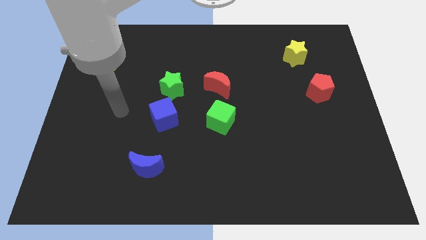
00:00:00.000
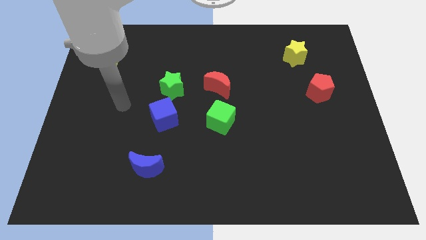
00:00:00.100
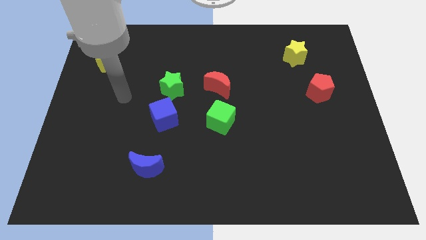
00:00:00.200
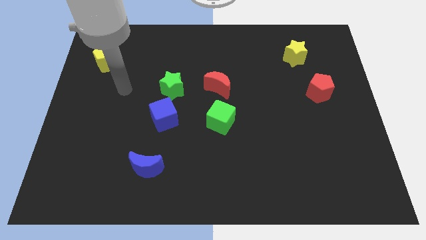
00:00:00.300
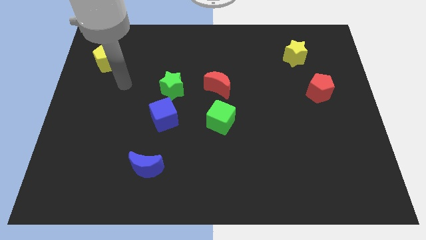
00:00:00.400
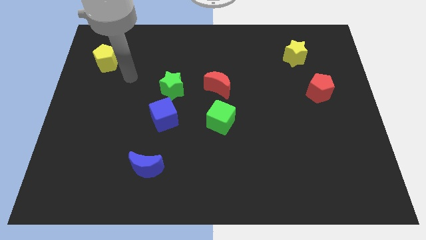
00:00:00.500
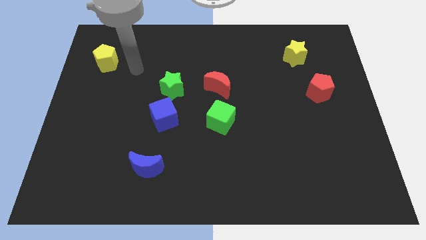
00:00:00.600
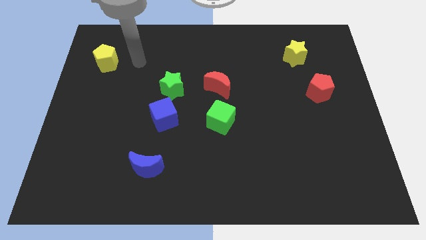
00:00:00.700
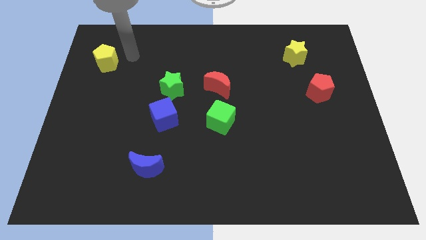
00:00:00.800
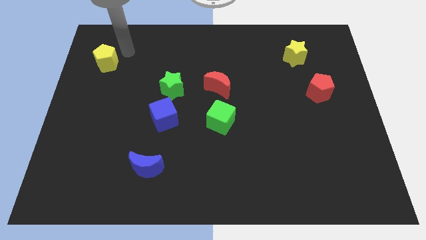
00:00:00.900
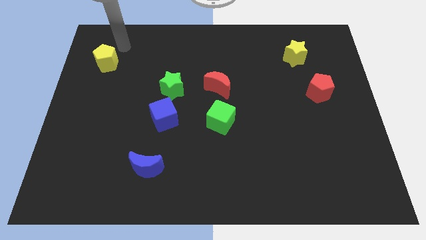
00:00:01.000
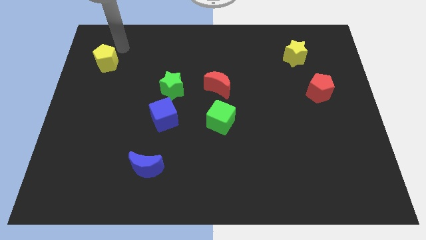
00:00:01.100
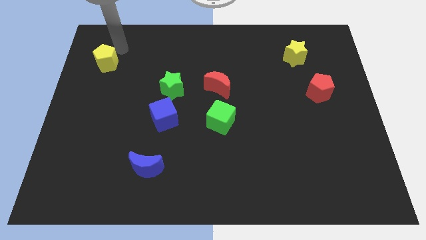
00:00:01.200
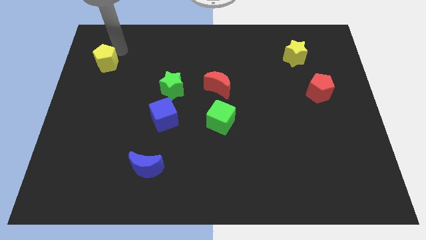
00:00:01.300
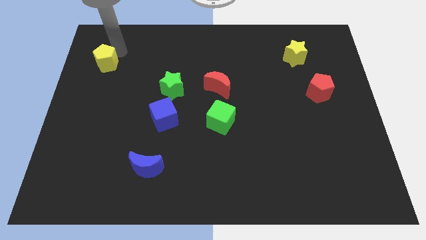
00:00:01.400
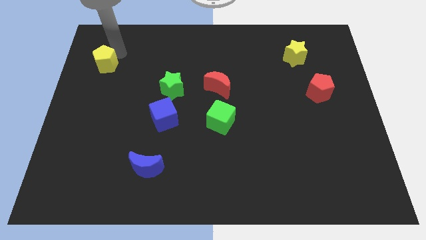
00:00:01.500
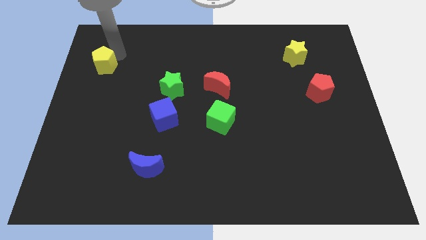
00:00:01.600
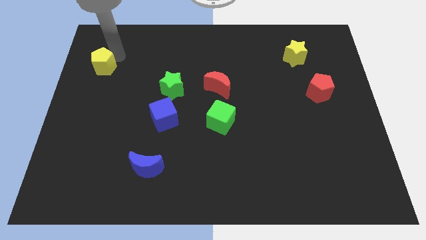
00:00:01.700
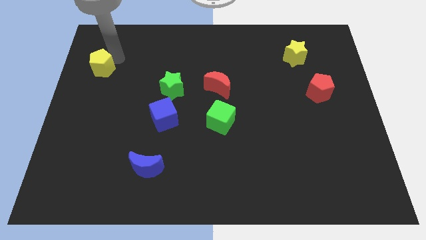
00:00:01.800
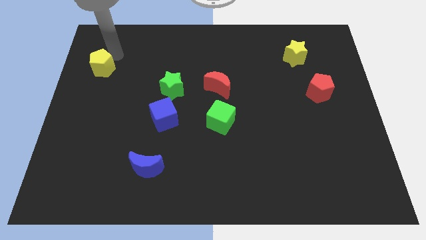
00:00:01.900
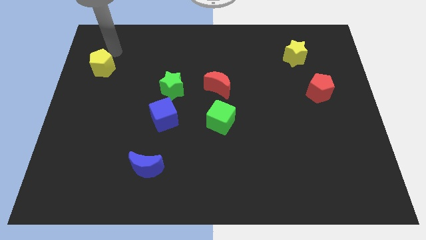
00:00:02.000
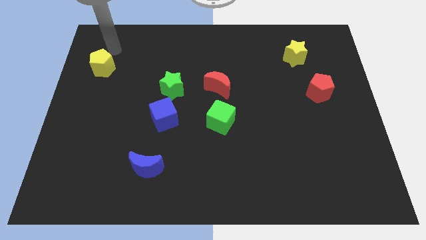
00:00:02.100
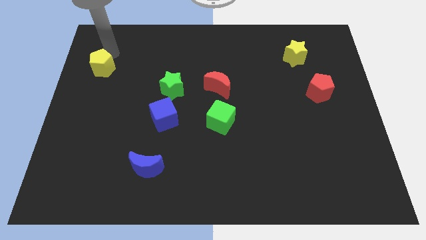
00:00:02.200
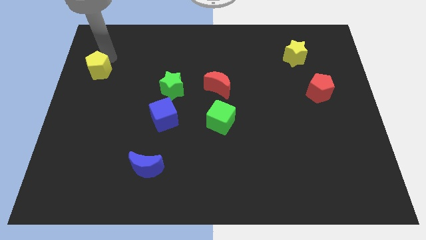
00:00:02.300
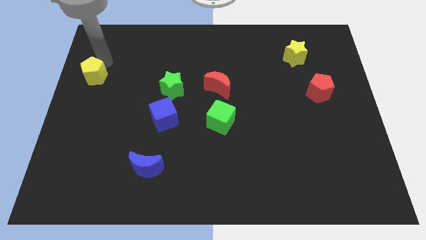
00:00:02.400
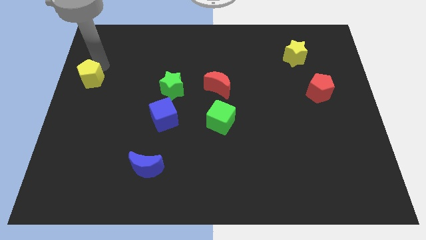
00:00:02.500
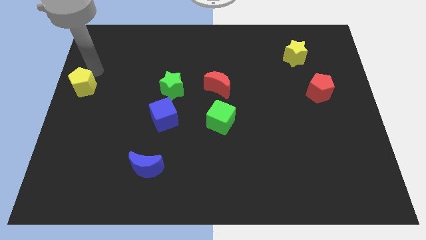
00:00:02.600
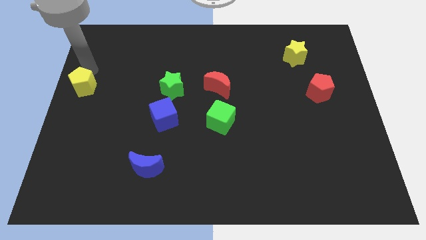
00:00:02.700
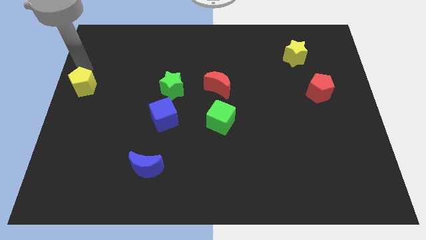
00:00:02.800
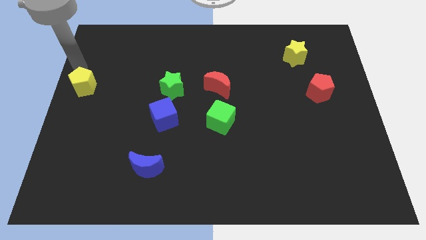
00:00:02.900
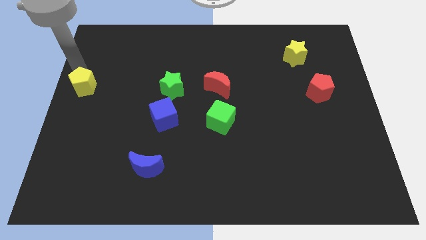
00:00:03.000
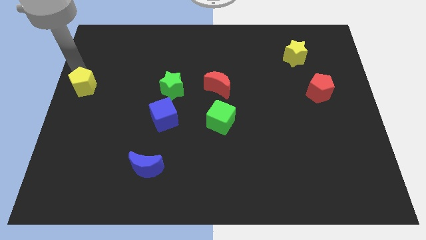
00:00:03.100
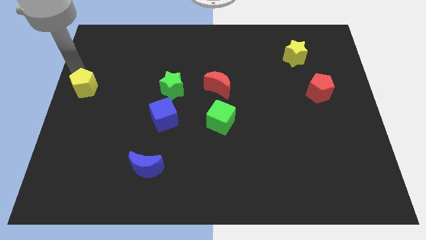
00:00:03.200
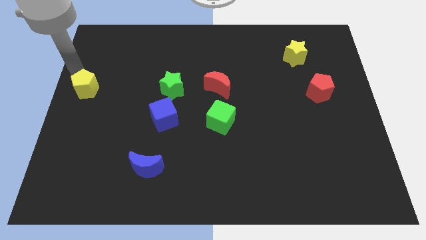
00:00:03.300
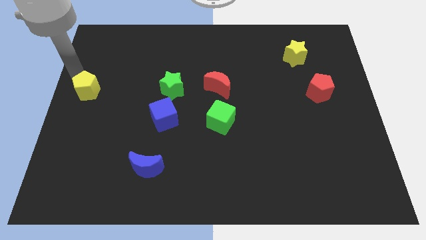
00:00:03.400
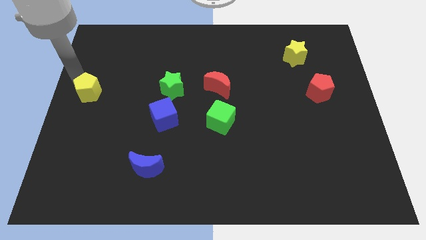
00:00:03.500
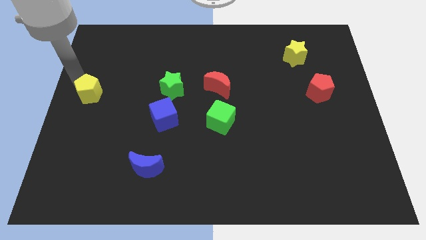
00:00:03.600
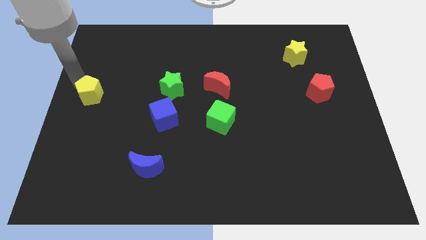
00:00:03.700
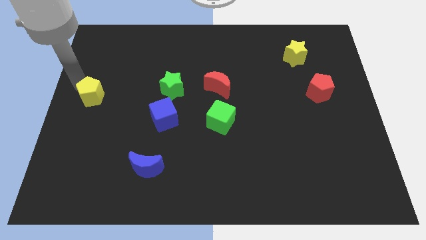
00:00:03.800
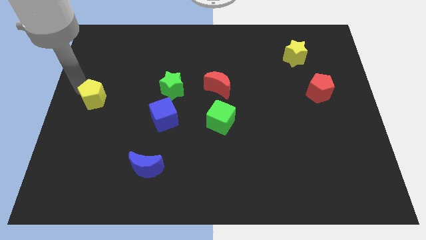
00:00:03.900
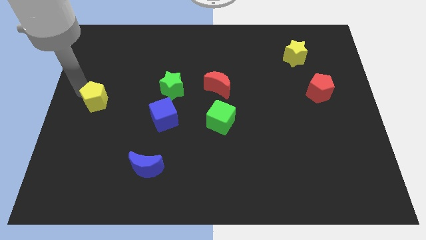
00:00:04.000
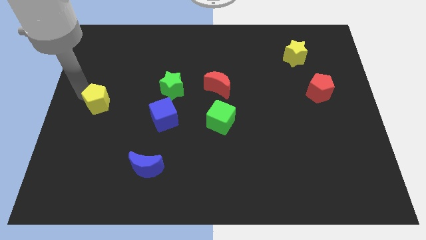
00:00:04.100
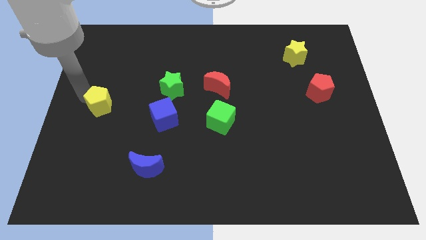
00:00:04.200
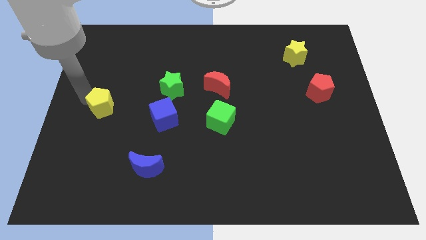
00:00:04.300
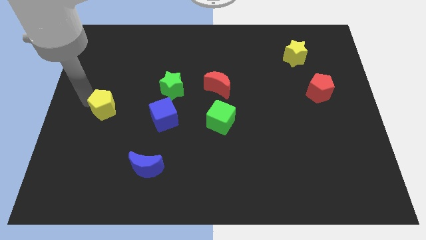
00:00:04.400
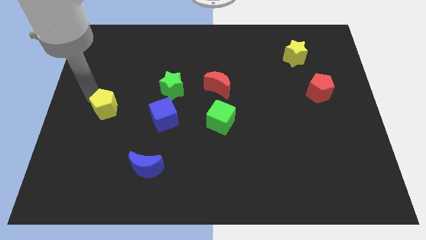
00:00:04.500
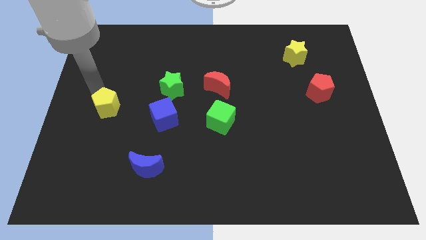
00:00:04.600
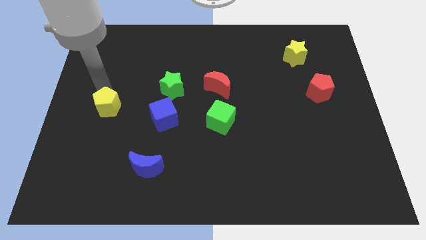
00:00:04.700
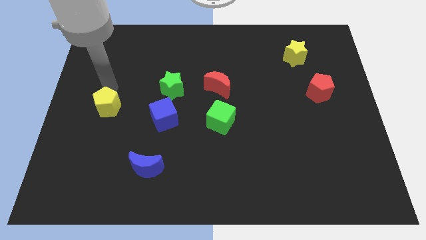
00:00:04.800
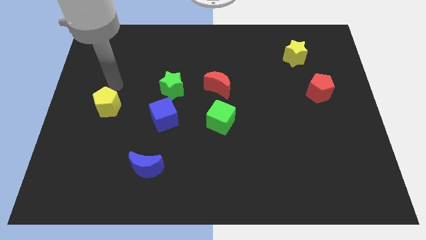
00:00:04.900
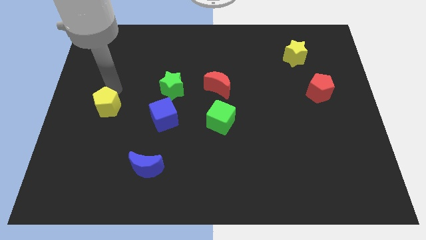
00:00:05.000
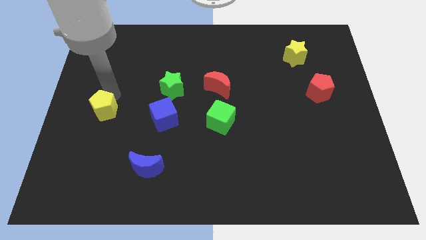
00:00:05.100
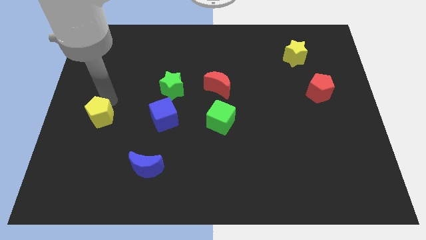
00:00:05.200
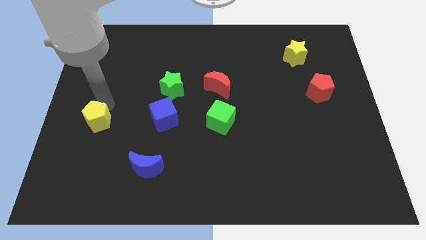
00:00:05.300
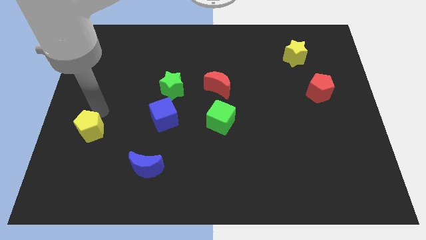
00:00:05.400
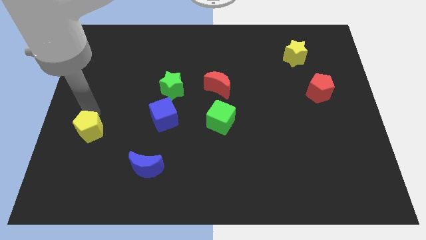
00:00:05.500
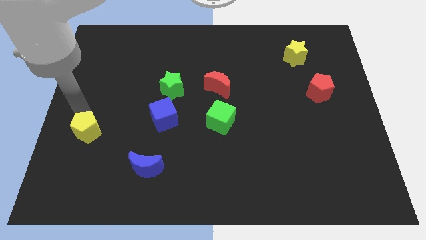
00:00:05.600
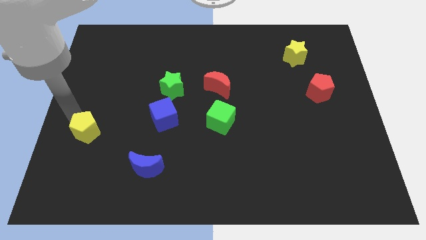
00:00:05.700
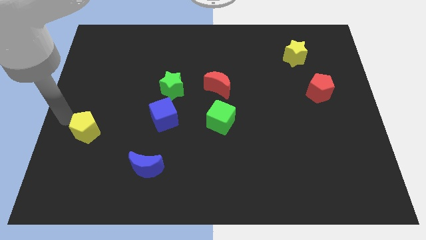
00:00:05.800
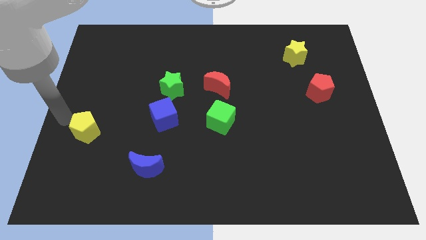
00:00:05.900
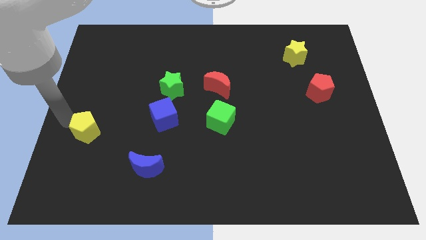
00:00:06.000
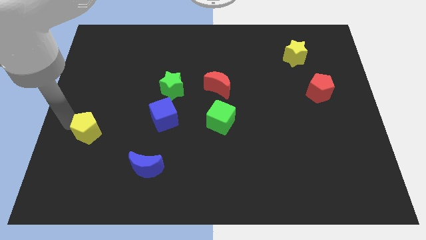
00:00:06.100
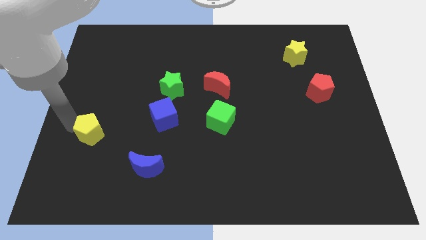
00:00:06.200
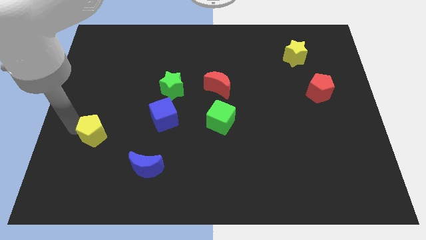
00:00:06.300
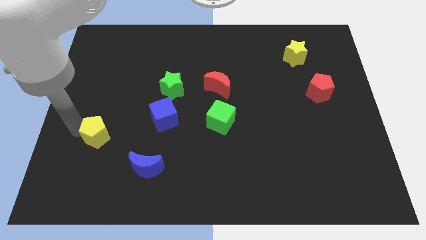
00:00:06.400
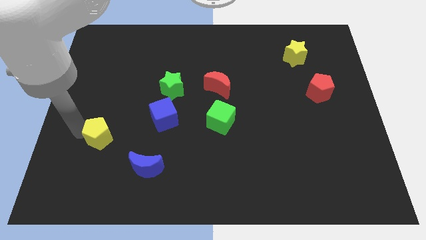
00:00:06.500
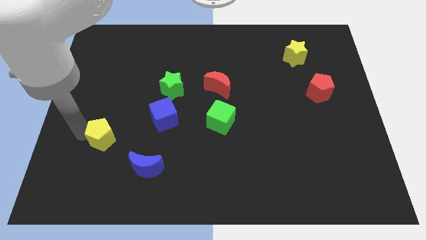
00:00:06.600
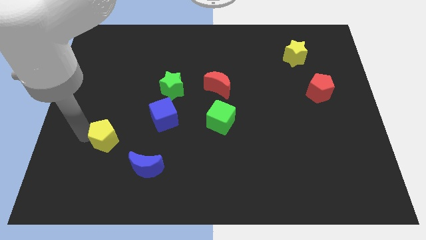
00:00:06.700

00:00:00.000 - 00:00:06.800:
slide the yellow pentagon to the top left side of the blue moon

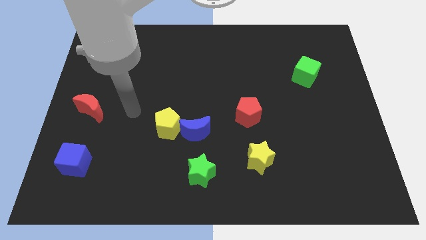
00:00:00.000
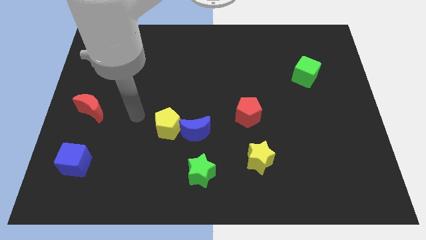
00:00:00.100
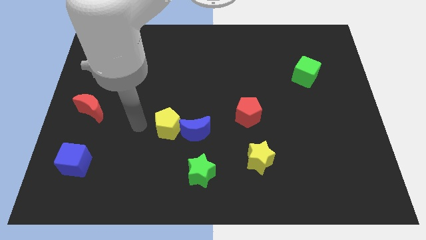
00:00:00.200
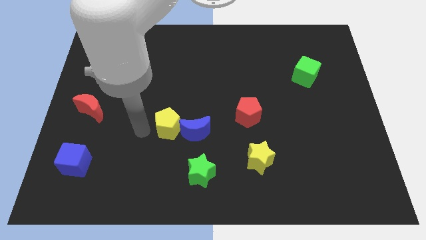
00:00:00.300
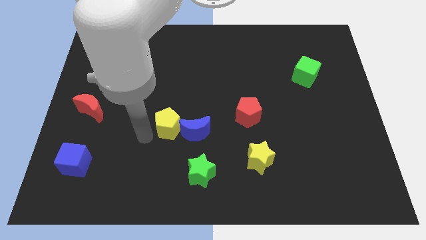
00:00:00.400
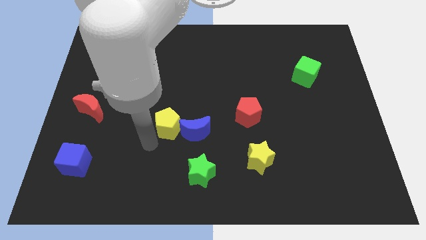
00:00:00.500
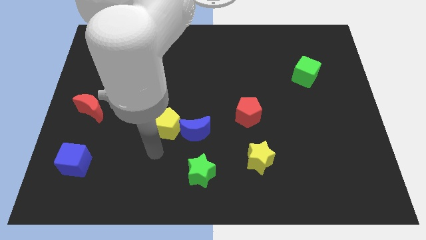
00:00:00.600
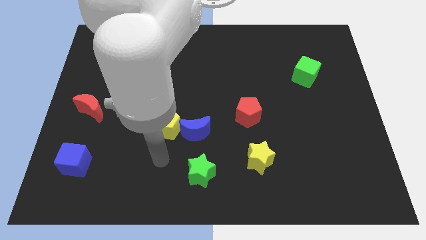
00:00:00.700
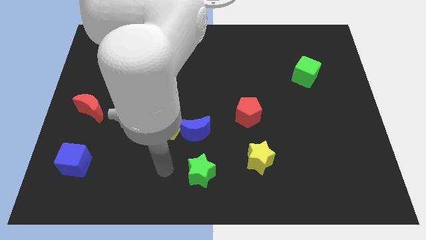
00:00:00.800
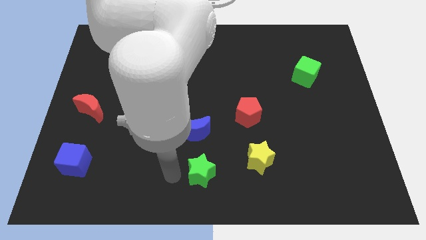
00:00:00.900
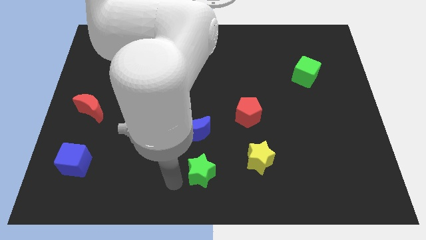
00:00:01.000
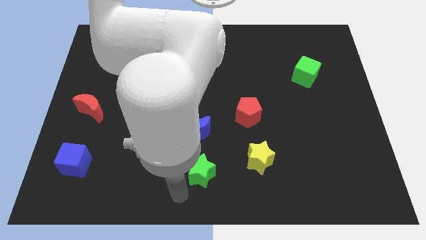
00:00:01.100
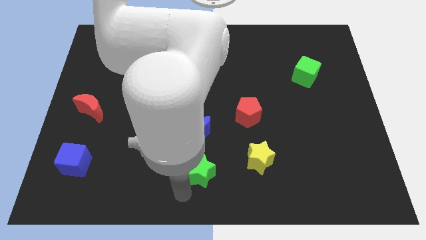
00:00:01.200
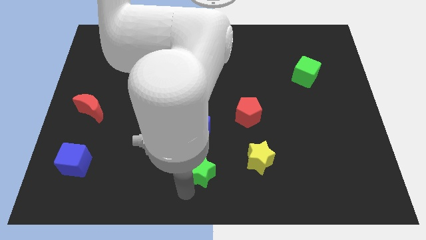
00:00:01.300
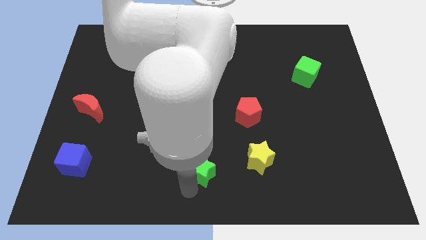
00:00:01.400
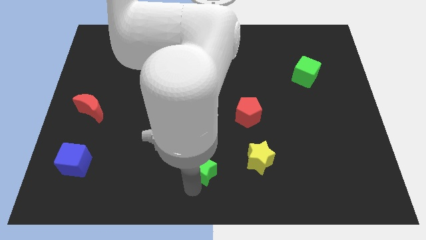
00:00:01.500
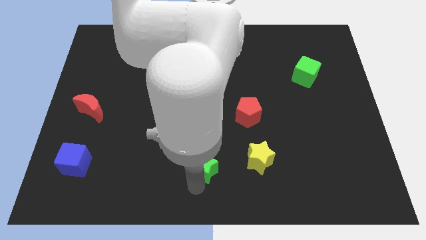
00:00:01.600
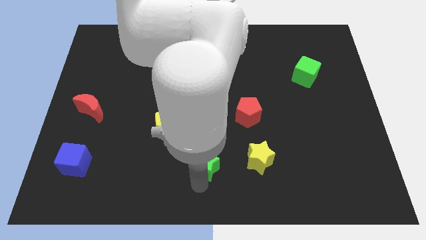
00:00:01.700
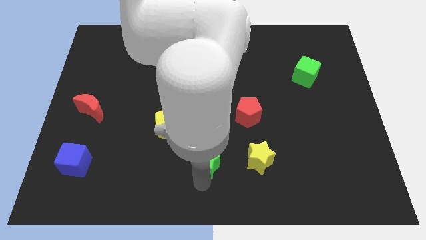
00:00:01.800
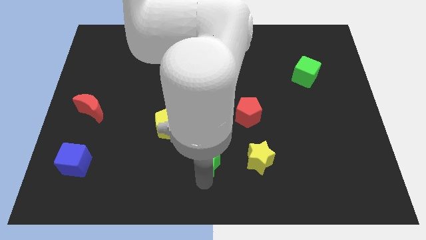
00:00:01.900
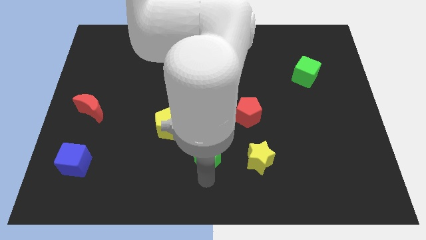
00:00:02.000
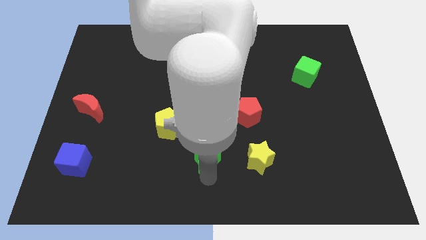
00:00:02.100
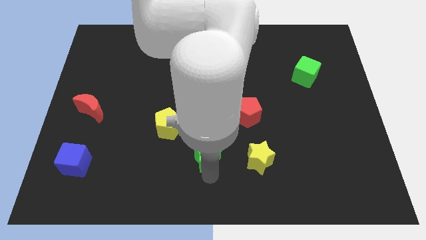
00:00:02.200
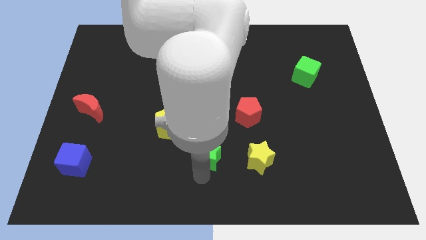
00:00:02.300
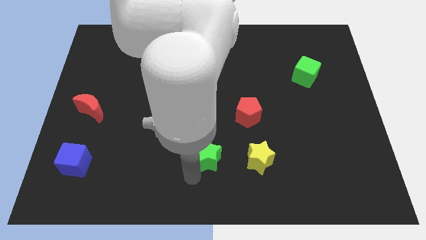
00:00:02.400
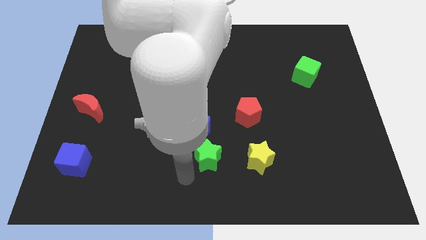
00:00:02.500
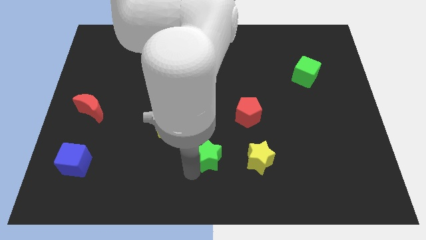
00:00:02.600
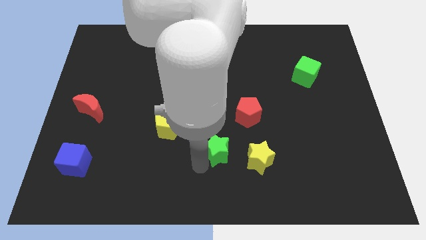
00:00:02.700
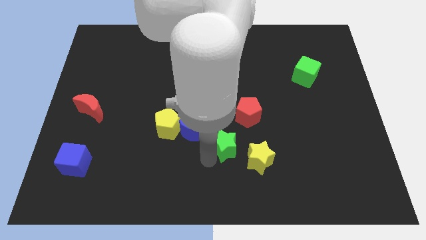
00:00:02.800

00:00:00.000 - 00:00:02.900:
slide the green star to the right side of the blue moon
